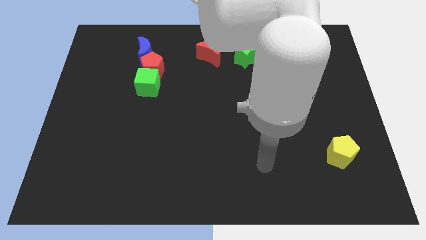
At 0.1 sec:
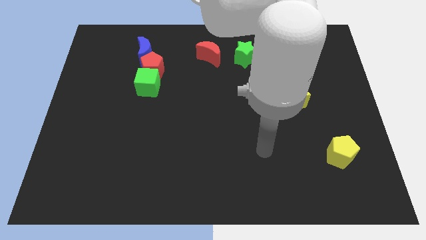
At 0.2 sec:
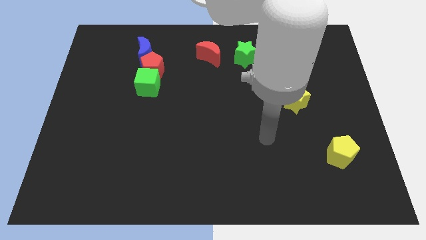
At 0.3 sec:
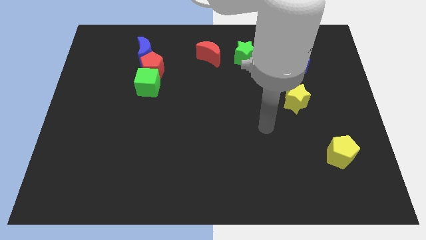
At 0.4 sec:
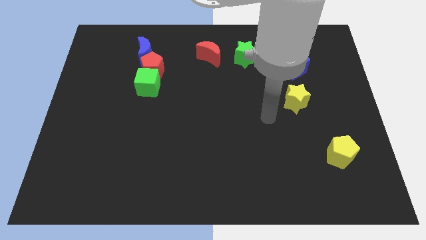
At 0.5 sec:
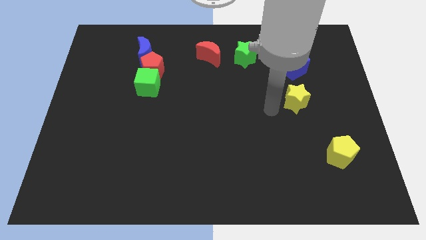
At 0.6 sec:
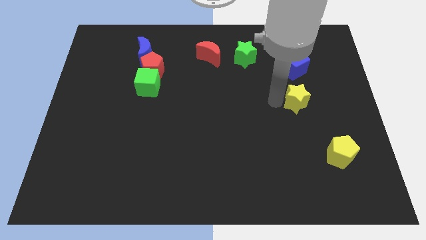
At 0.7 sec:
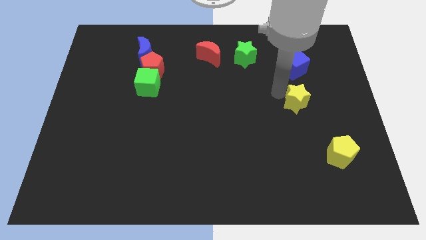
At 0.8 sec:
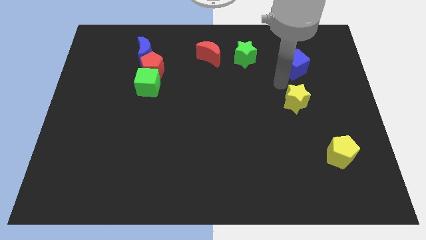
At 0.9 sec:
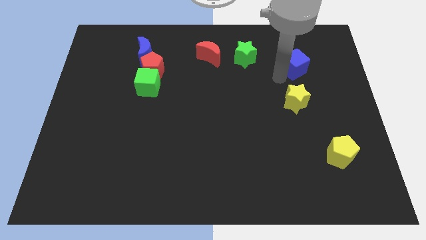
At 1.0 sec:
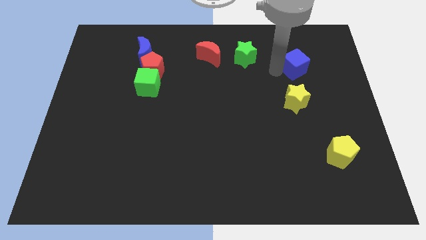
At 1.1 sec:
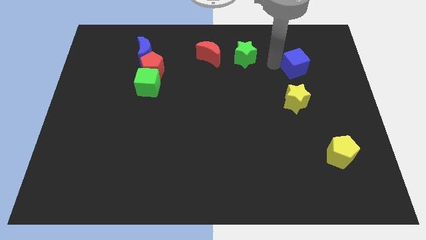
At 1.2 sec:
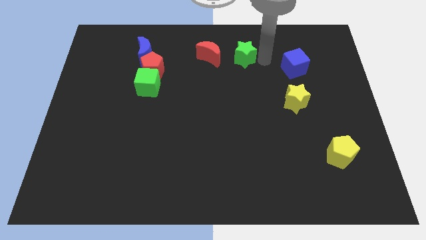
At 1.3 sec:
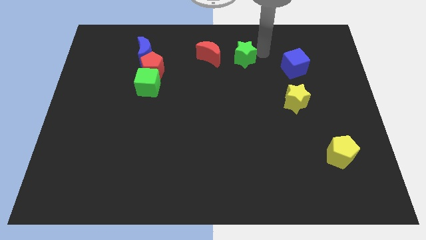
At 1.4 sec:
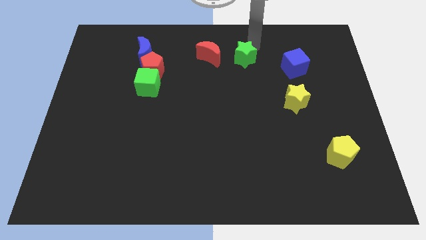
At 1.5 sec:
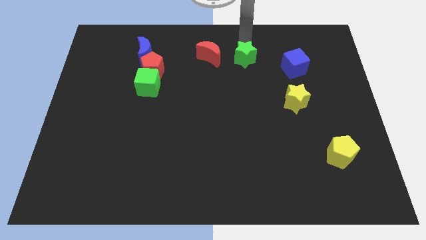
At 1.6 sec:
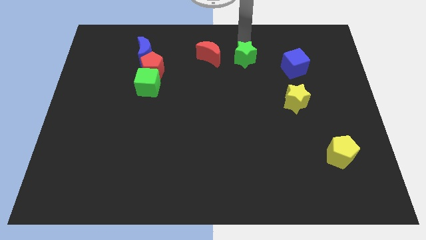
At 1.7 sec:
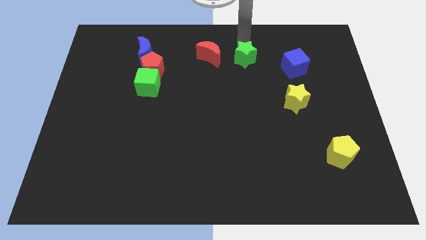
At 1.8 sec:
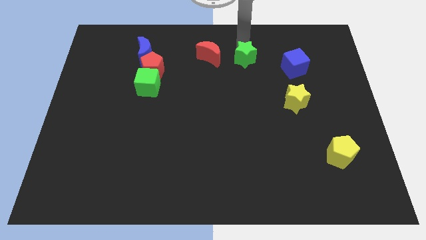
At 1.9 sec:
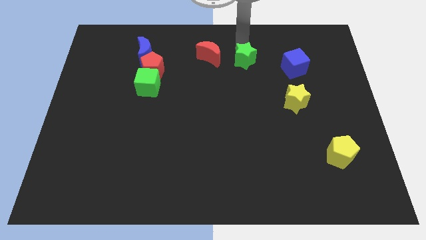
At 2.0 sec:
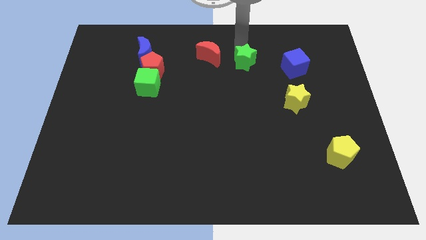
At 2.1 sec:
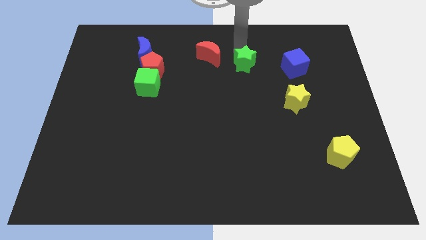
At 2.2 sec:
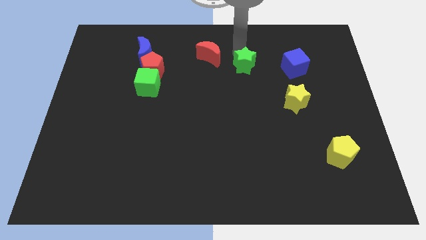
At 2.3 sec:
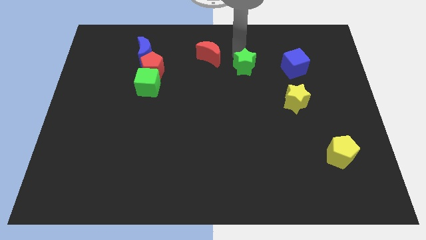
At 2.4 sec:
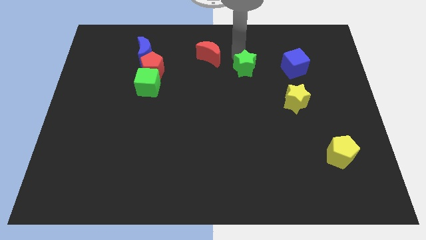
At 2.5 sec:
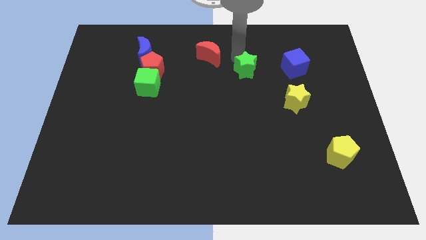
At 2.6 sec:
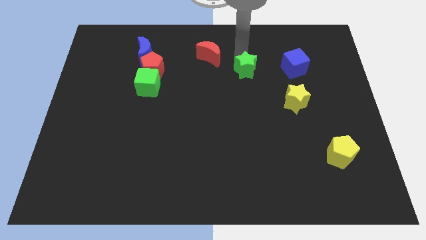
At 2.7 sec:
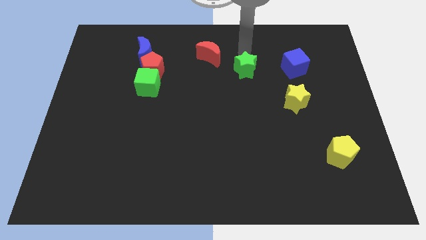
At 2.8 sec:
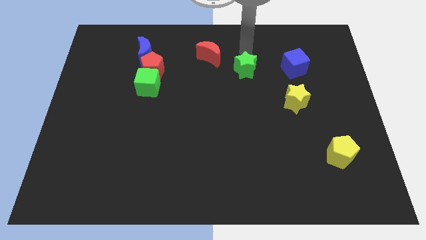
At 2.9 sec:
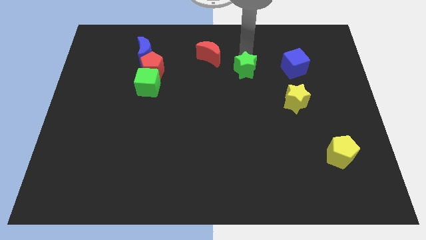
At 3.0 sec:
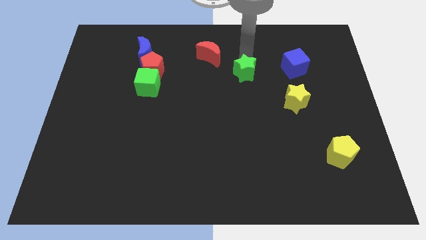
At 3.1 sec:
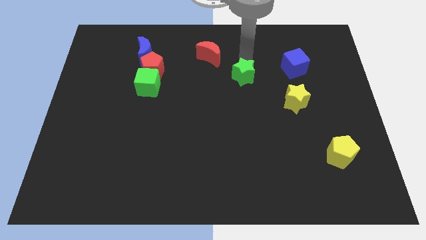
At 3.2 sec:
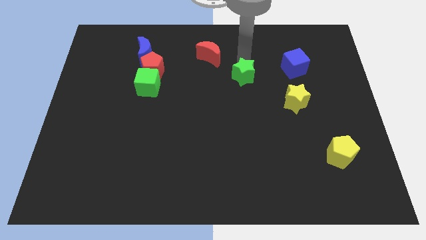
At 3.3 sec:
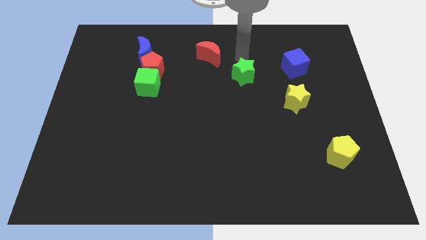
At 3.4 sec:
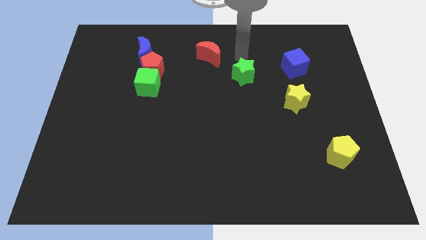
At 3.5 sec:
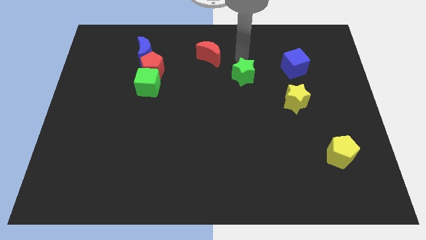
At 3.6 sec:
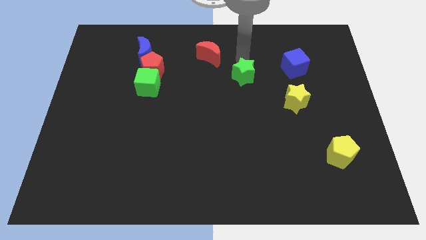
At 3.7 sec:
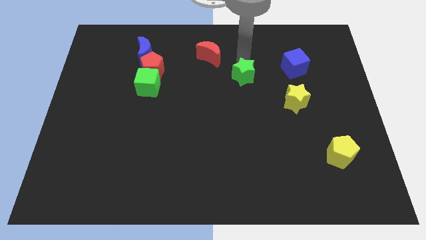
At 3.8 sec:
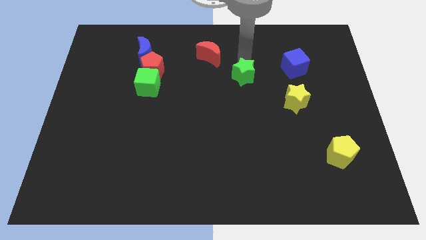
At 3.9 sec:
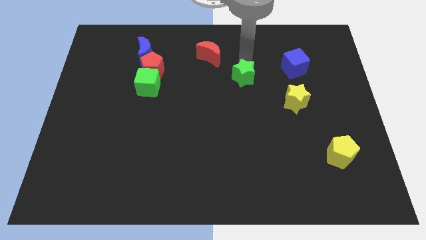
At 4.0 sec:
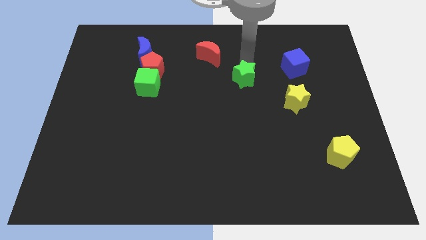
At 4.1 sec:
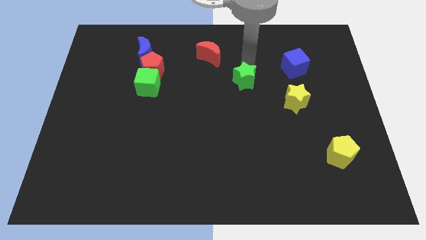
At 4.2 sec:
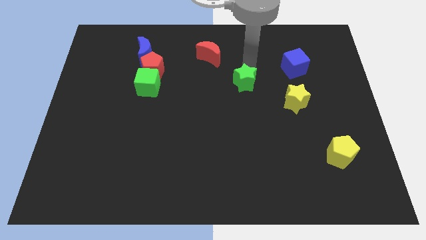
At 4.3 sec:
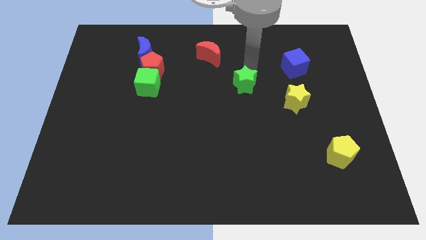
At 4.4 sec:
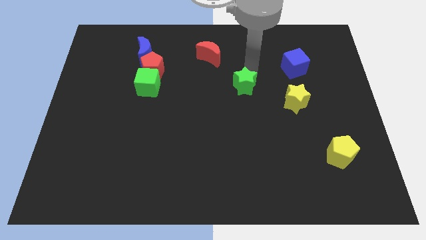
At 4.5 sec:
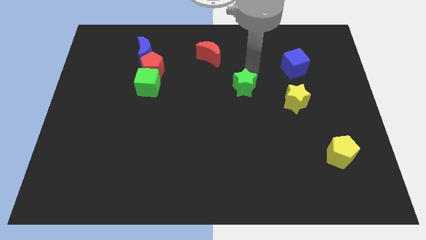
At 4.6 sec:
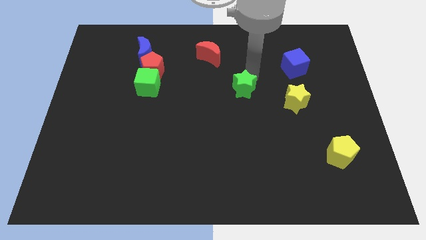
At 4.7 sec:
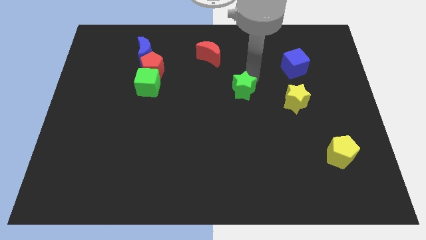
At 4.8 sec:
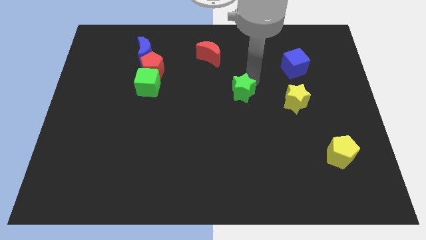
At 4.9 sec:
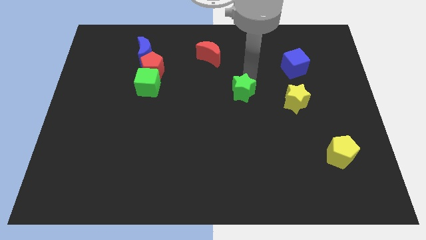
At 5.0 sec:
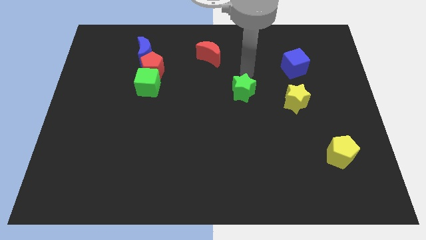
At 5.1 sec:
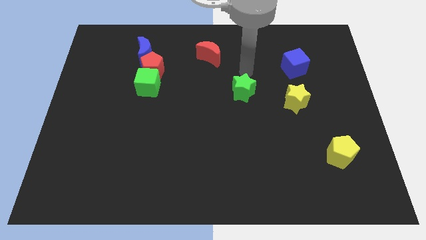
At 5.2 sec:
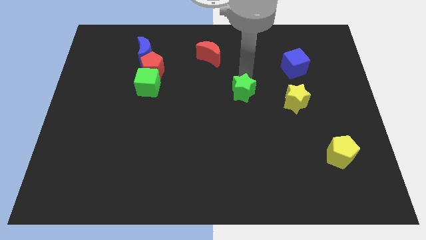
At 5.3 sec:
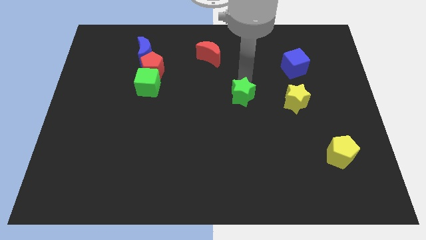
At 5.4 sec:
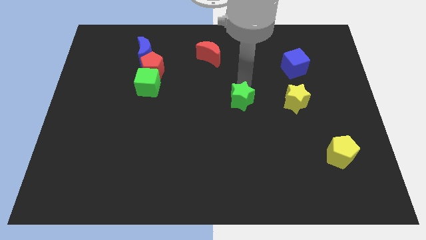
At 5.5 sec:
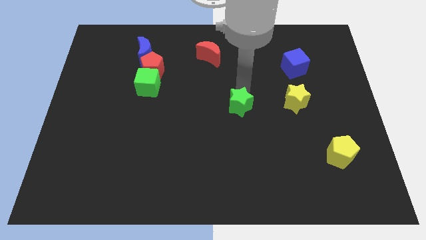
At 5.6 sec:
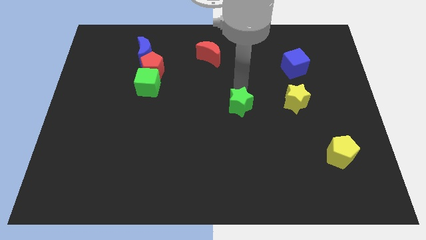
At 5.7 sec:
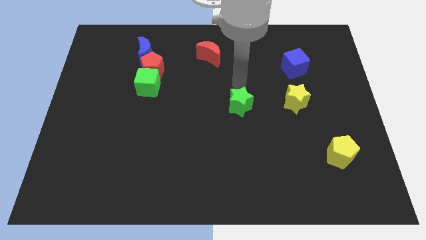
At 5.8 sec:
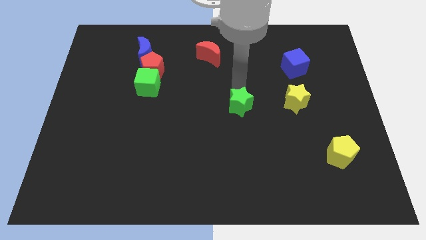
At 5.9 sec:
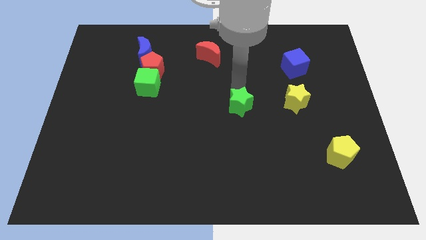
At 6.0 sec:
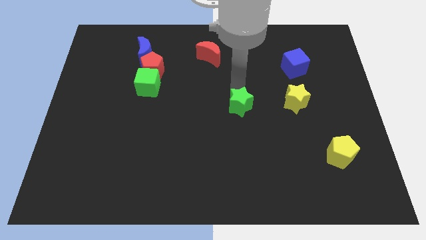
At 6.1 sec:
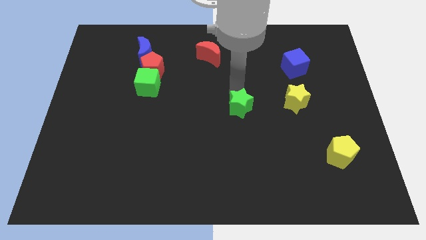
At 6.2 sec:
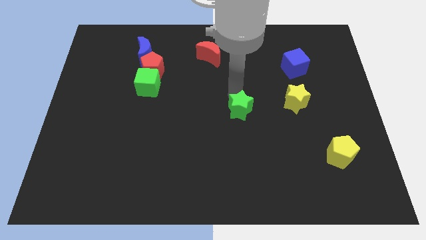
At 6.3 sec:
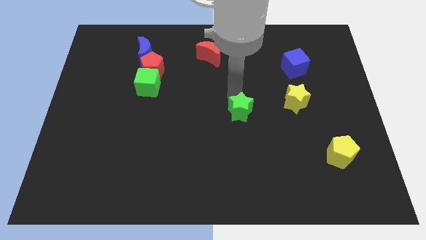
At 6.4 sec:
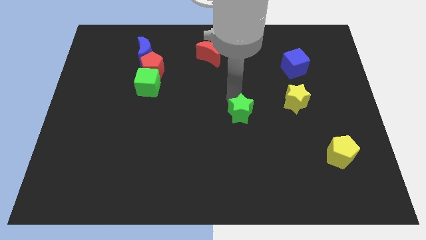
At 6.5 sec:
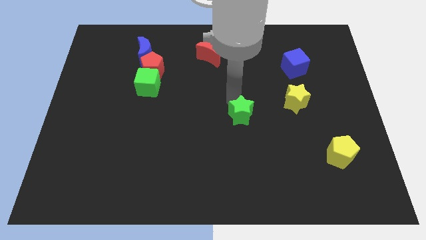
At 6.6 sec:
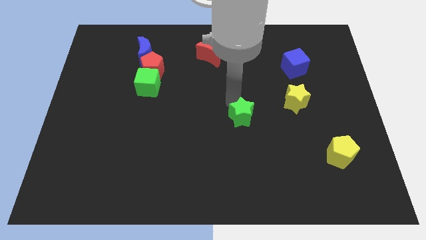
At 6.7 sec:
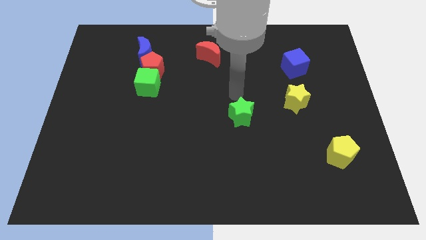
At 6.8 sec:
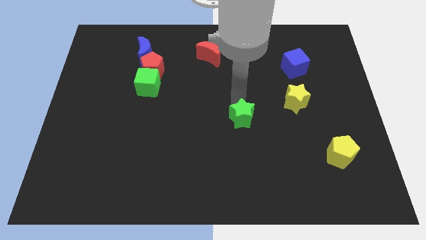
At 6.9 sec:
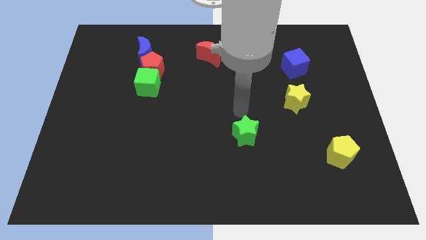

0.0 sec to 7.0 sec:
move the green star down

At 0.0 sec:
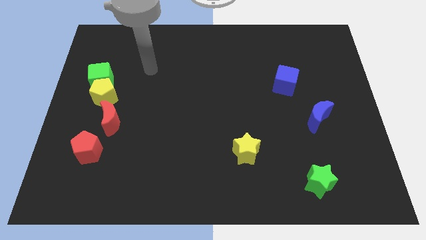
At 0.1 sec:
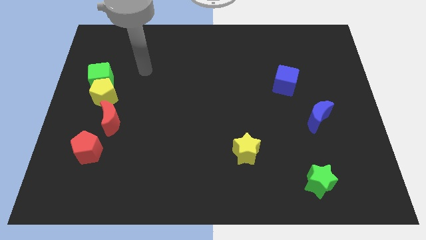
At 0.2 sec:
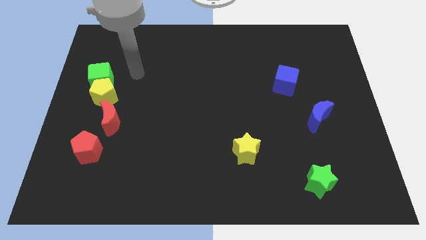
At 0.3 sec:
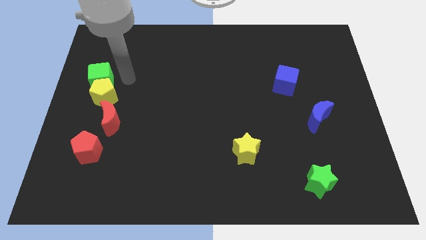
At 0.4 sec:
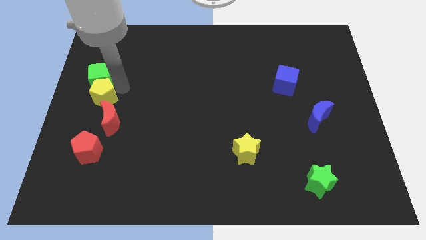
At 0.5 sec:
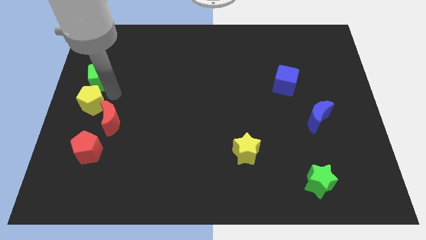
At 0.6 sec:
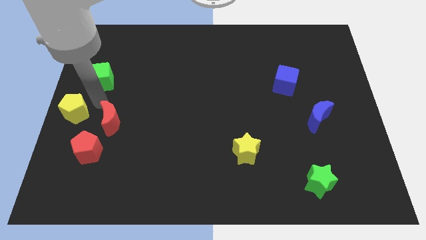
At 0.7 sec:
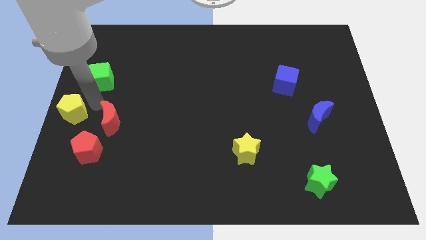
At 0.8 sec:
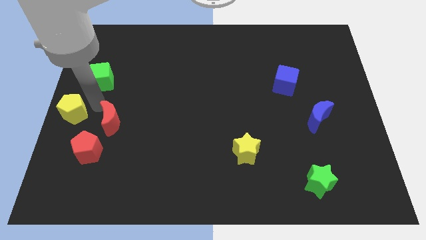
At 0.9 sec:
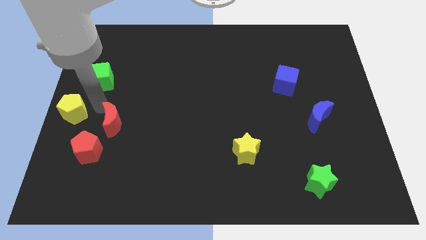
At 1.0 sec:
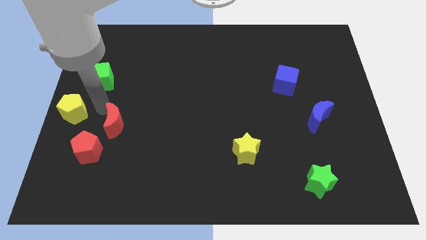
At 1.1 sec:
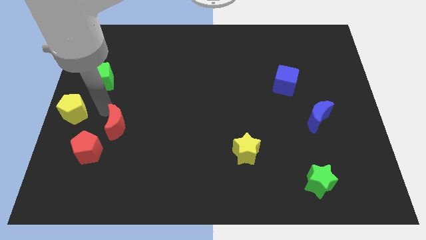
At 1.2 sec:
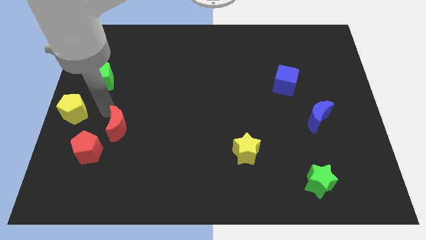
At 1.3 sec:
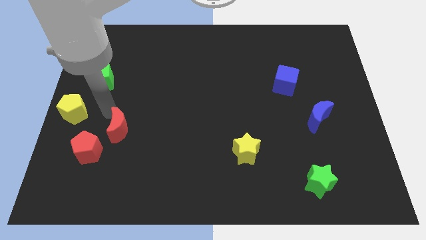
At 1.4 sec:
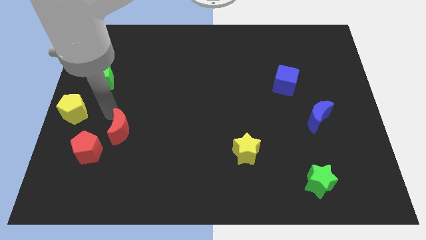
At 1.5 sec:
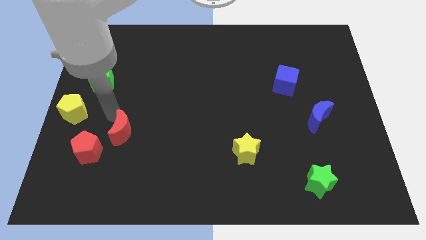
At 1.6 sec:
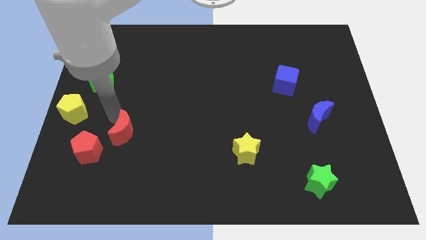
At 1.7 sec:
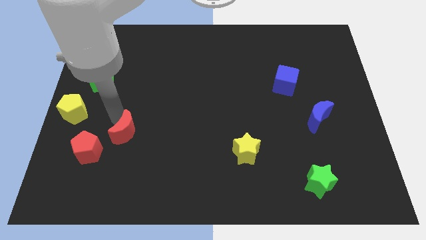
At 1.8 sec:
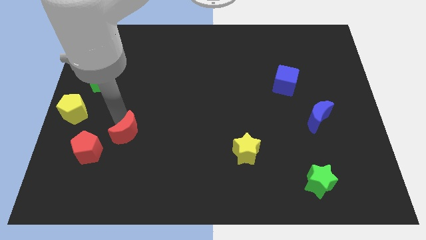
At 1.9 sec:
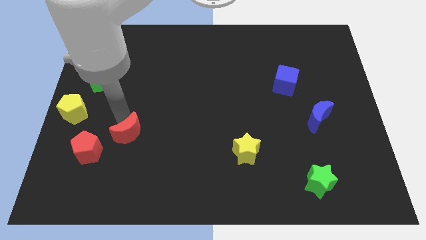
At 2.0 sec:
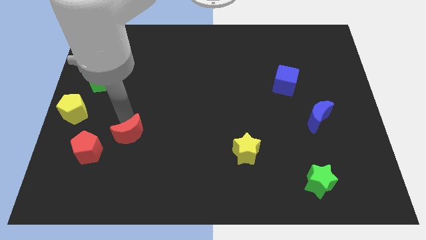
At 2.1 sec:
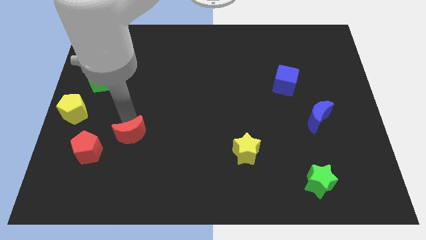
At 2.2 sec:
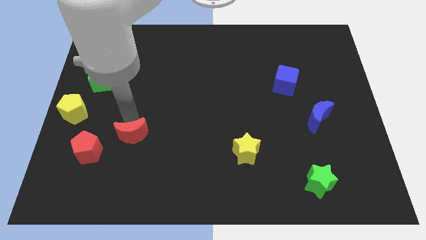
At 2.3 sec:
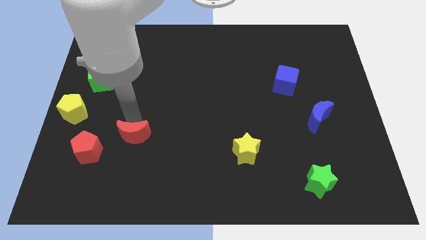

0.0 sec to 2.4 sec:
slide the red moon a bit down and to the right
